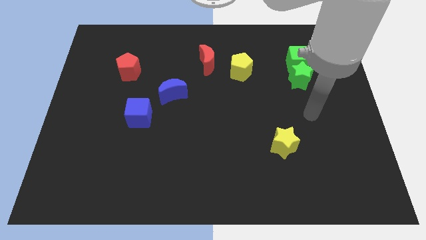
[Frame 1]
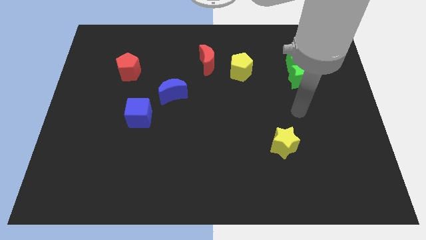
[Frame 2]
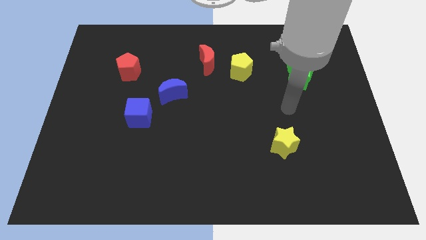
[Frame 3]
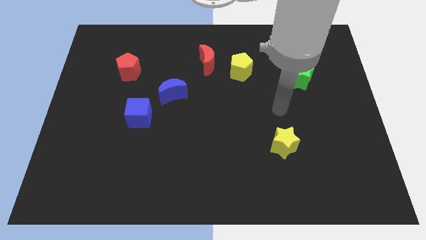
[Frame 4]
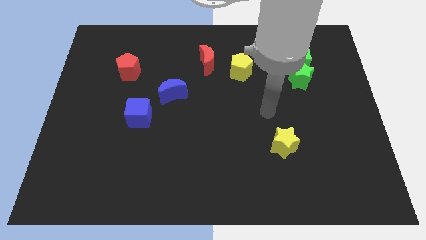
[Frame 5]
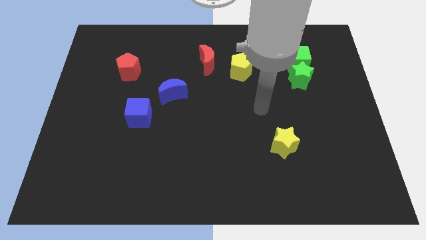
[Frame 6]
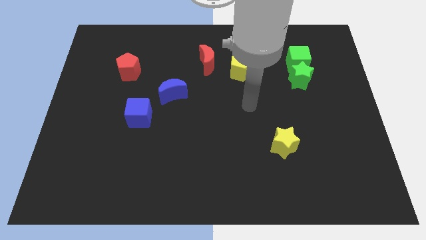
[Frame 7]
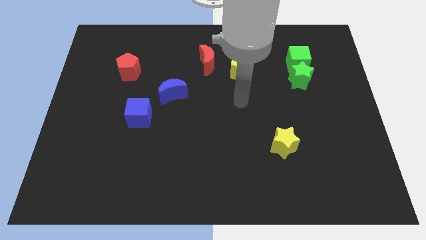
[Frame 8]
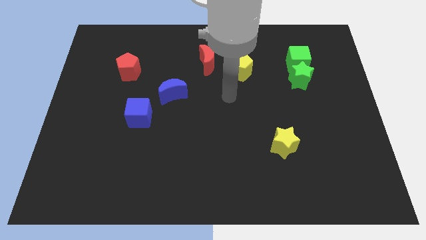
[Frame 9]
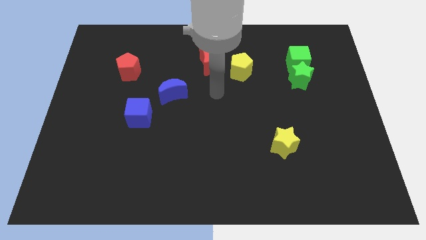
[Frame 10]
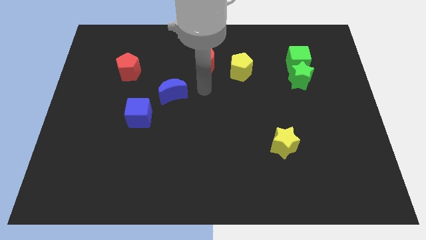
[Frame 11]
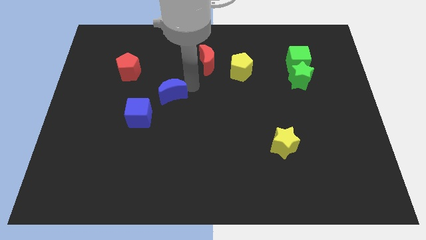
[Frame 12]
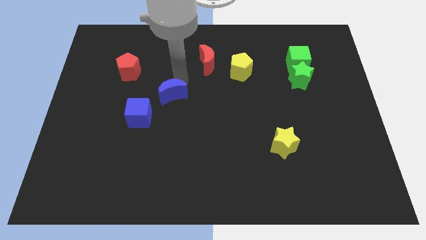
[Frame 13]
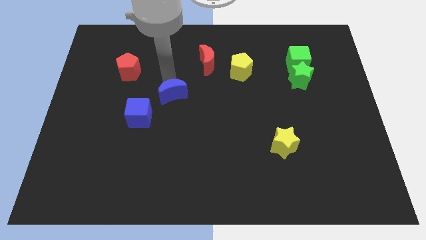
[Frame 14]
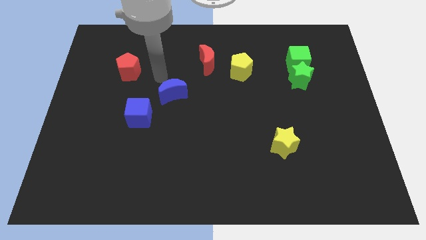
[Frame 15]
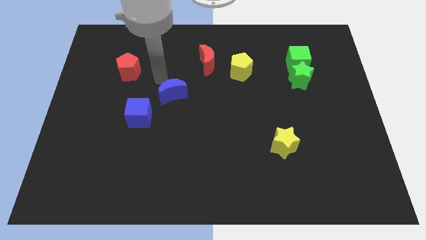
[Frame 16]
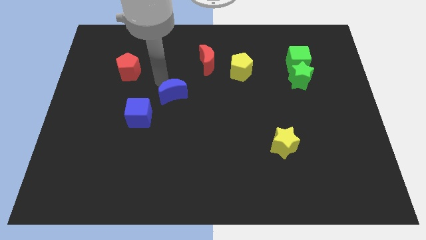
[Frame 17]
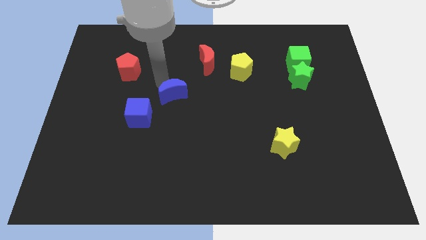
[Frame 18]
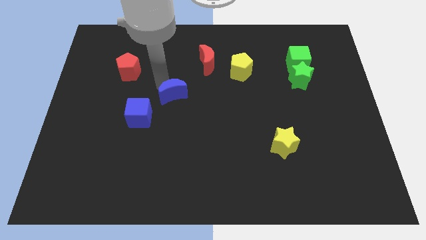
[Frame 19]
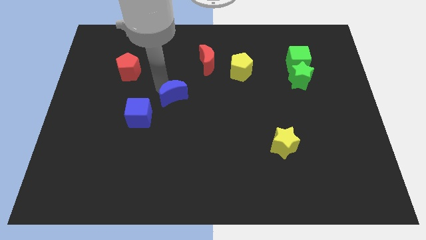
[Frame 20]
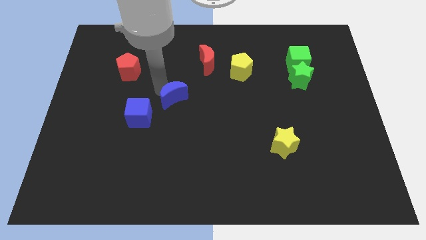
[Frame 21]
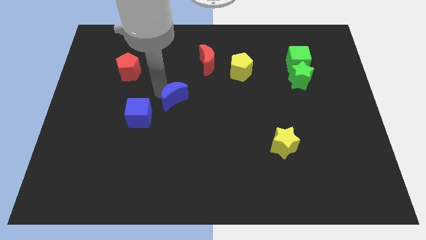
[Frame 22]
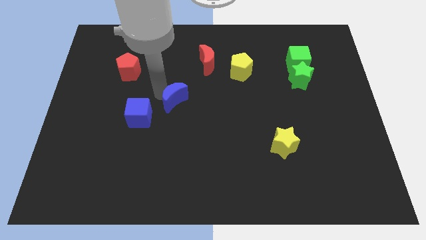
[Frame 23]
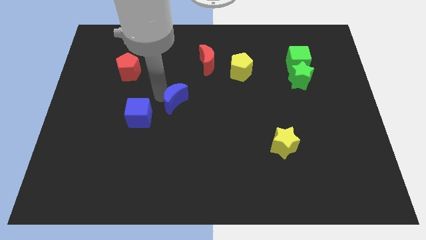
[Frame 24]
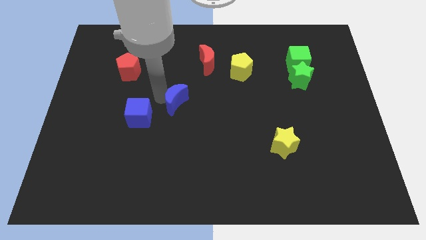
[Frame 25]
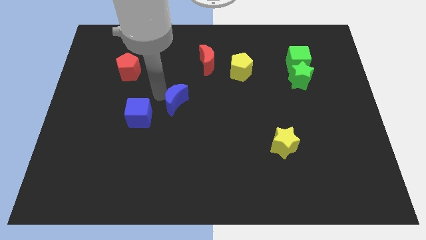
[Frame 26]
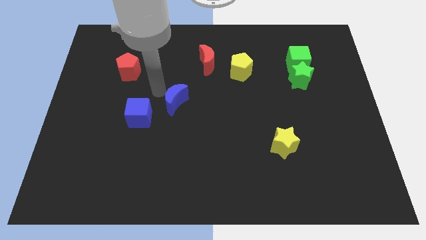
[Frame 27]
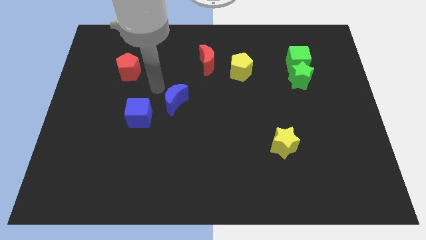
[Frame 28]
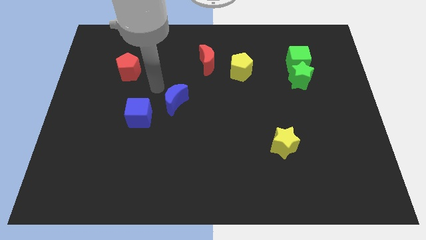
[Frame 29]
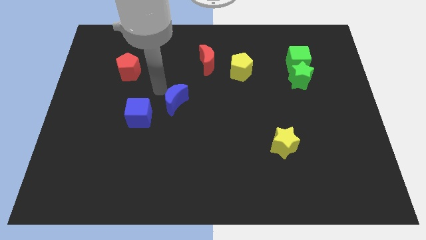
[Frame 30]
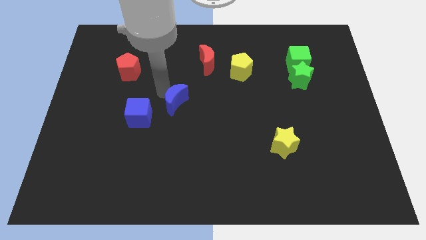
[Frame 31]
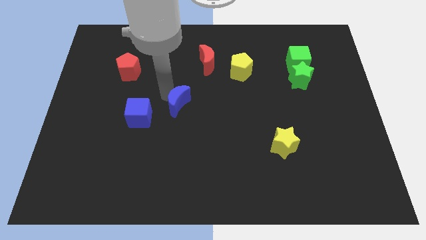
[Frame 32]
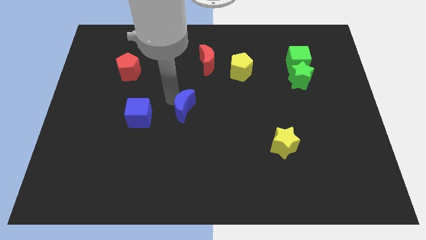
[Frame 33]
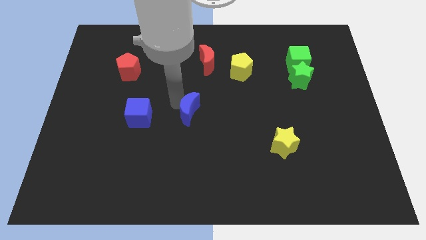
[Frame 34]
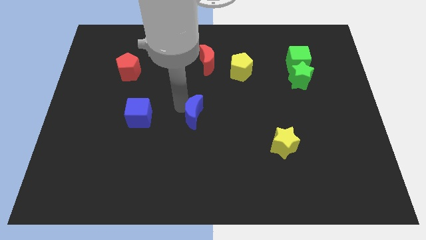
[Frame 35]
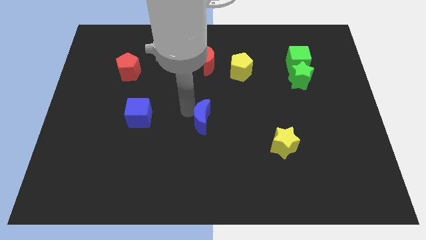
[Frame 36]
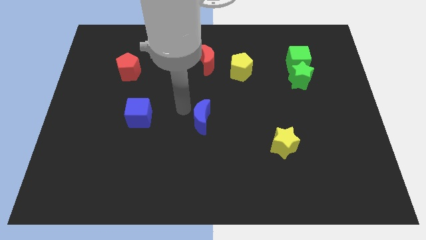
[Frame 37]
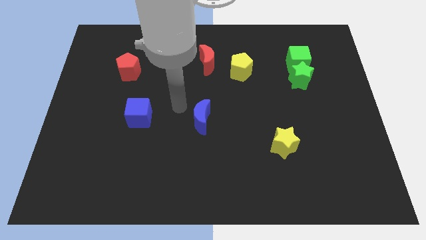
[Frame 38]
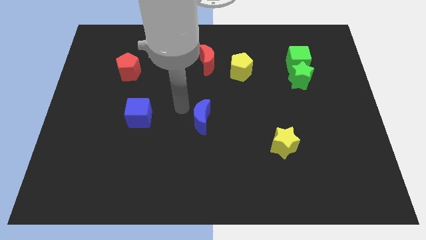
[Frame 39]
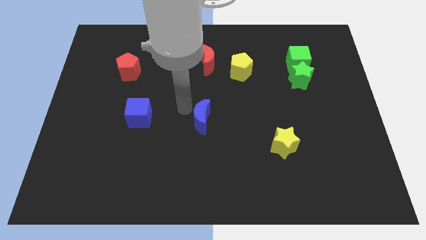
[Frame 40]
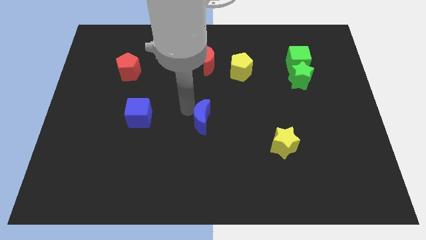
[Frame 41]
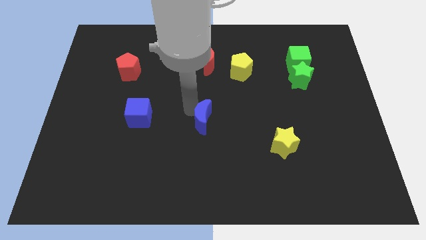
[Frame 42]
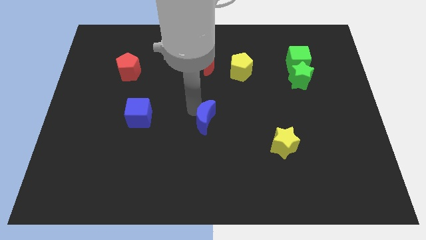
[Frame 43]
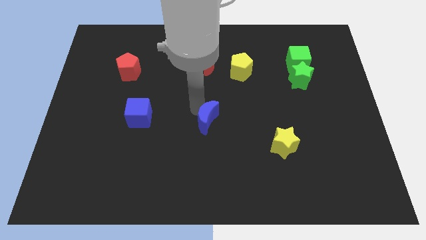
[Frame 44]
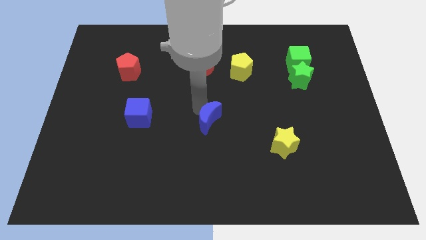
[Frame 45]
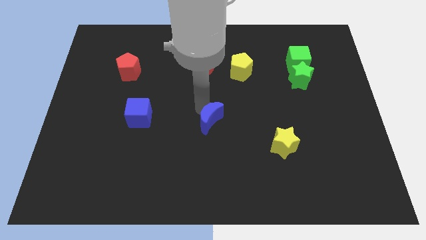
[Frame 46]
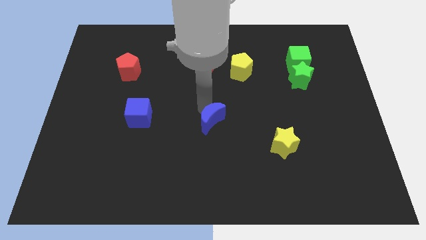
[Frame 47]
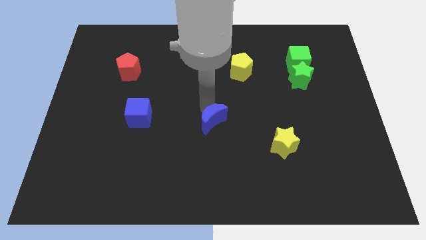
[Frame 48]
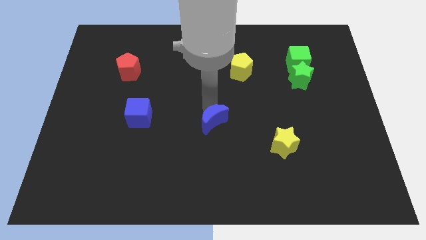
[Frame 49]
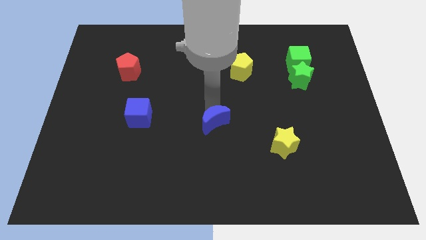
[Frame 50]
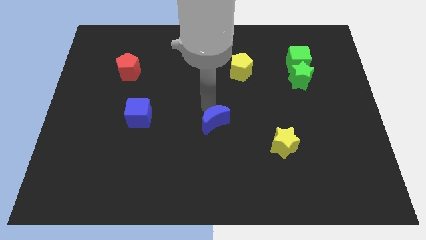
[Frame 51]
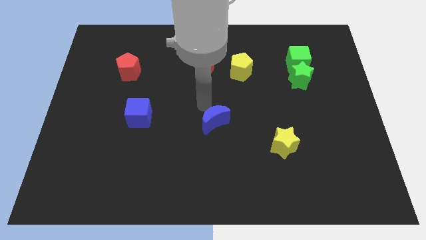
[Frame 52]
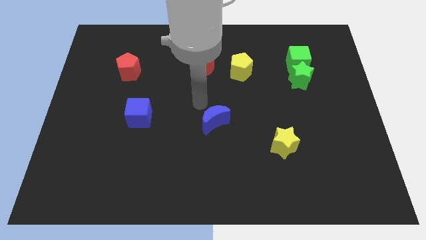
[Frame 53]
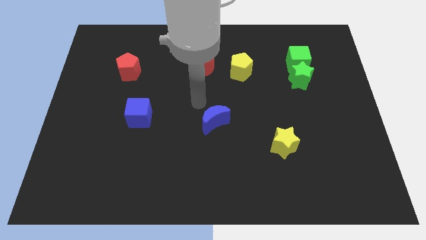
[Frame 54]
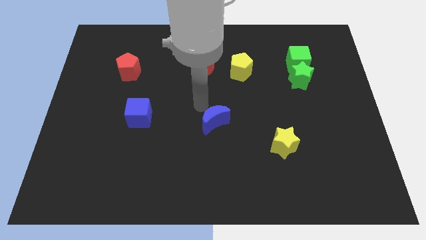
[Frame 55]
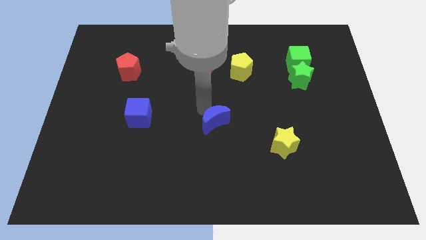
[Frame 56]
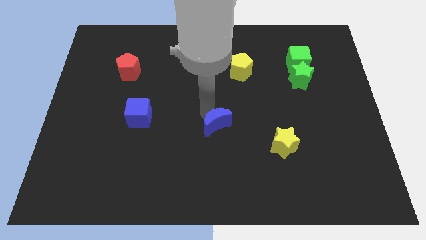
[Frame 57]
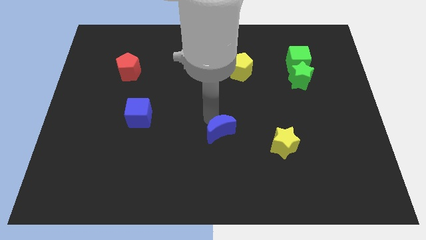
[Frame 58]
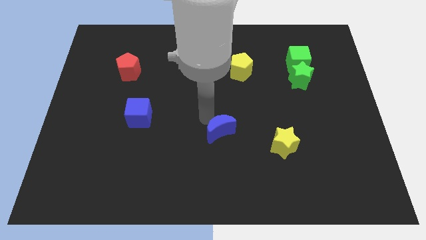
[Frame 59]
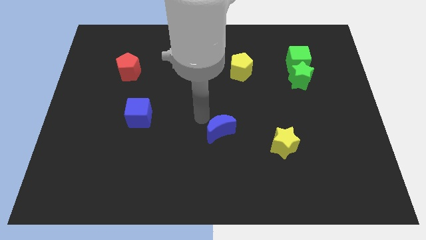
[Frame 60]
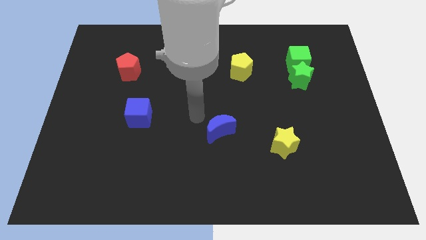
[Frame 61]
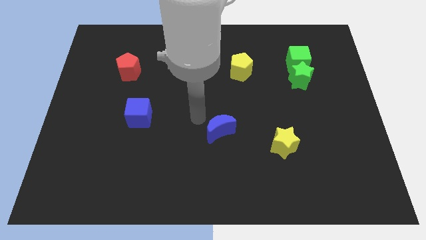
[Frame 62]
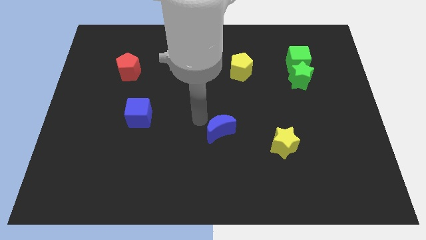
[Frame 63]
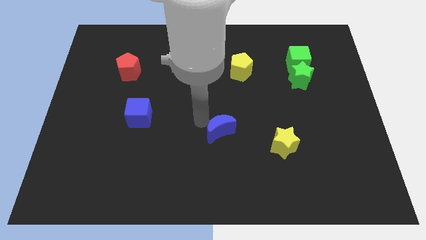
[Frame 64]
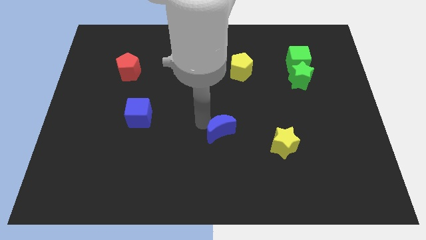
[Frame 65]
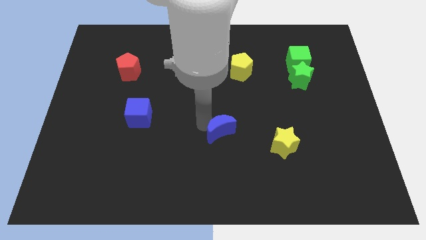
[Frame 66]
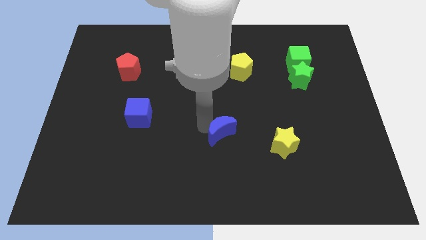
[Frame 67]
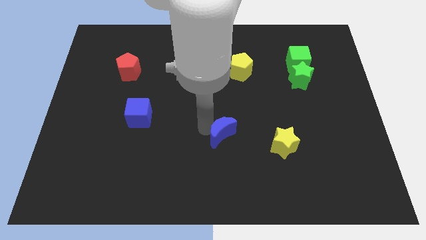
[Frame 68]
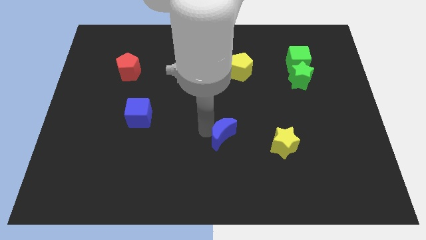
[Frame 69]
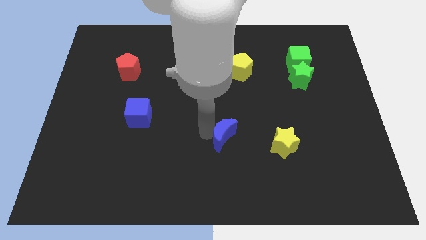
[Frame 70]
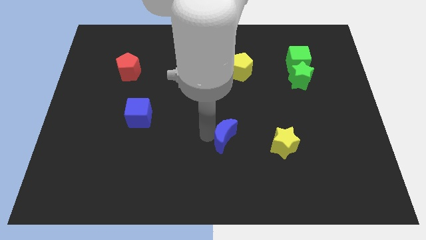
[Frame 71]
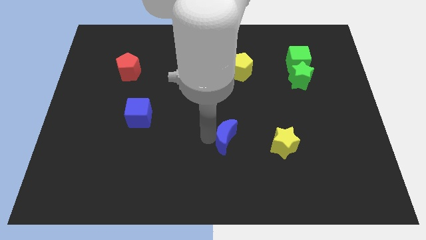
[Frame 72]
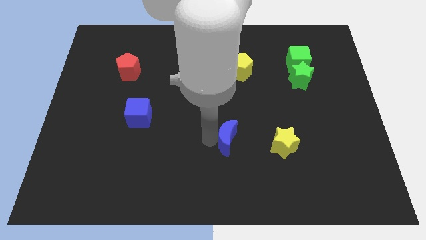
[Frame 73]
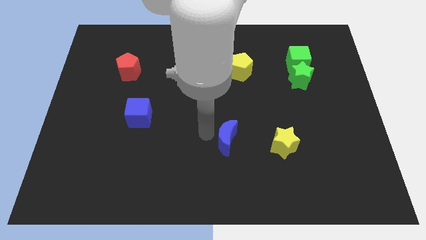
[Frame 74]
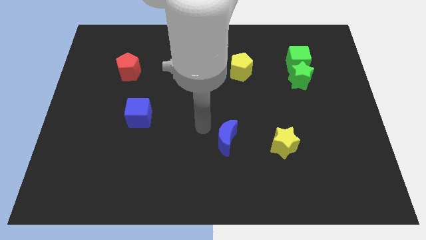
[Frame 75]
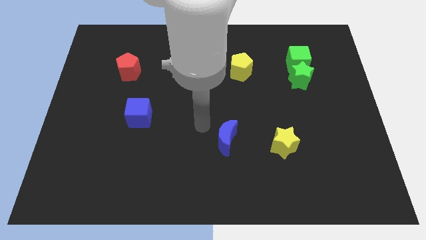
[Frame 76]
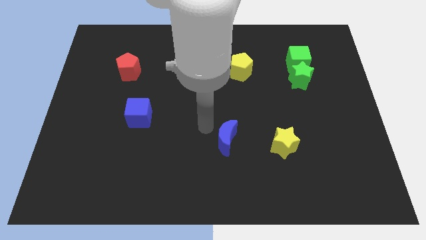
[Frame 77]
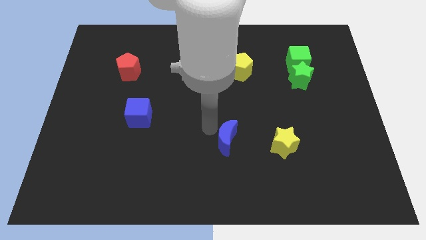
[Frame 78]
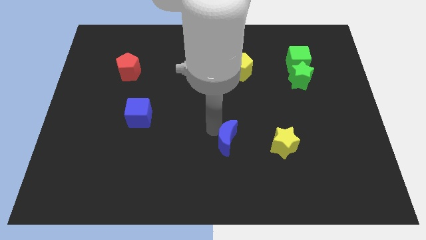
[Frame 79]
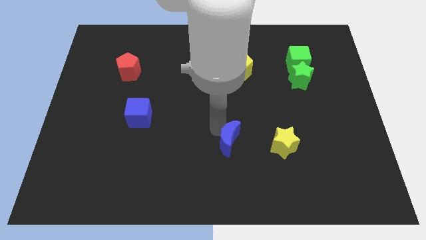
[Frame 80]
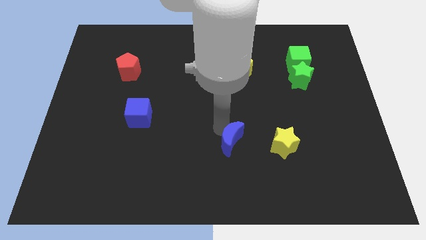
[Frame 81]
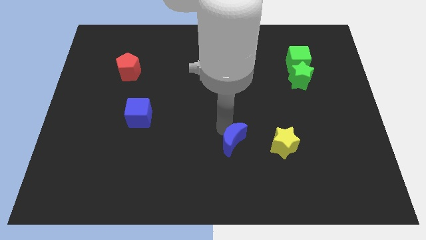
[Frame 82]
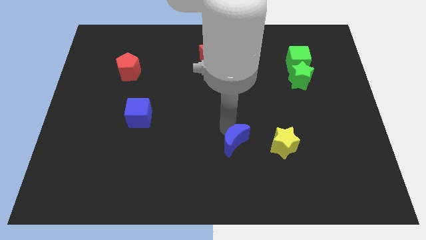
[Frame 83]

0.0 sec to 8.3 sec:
slide the blue moon downwards and right diagonally
